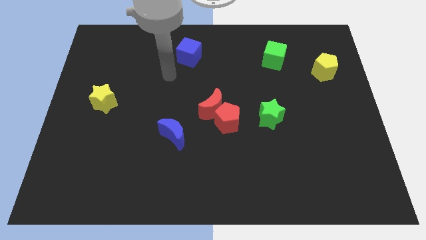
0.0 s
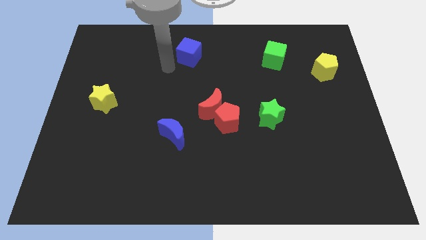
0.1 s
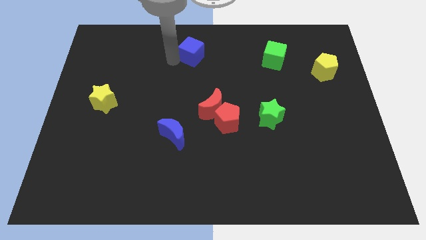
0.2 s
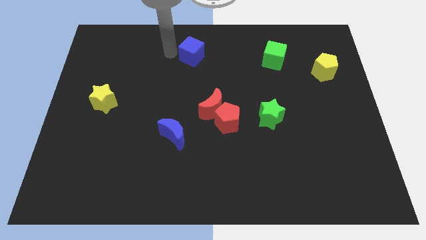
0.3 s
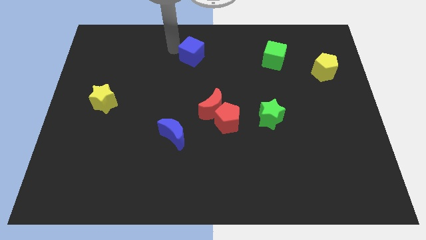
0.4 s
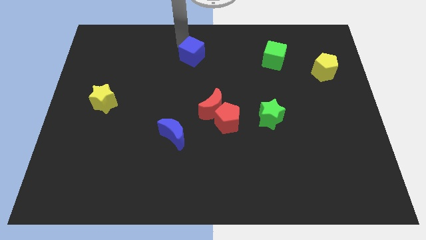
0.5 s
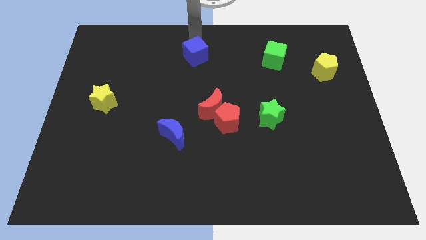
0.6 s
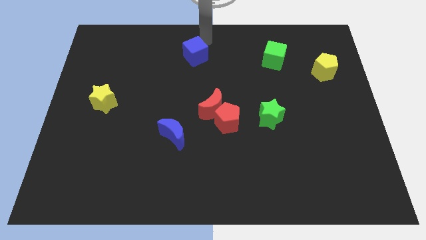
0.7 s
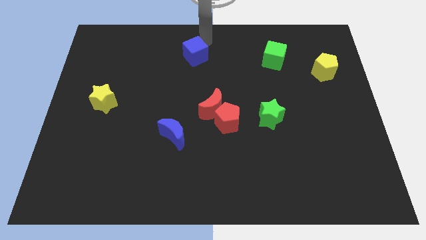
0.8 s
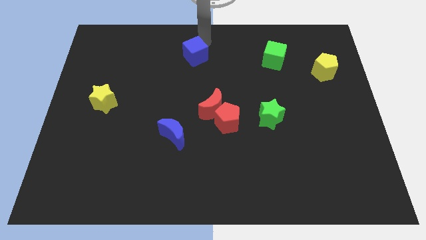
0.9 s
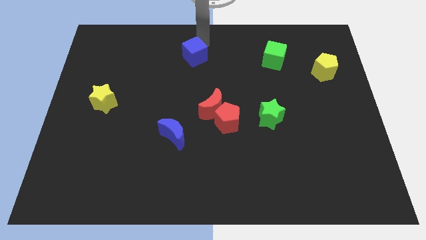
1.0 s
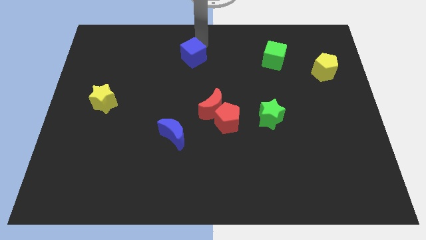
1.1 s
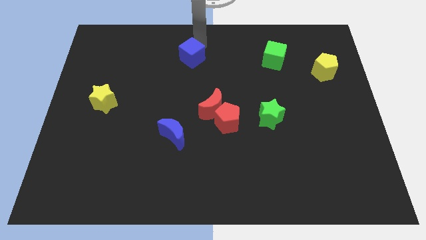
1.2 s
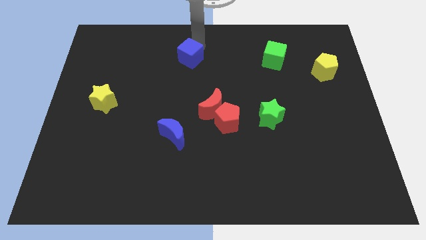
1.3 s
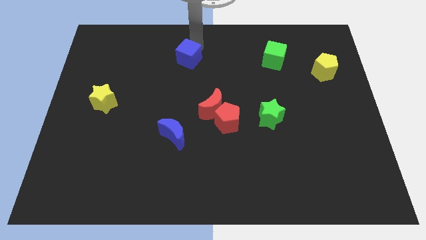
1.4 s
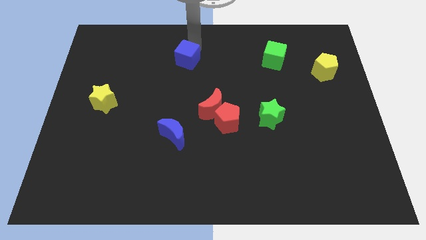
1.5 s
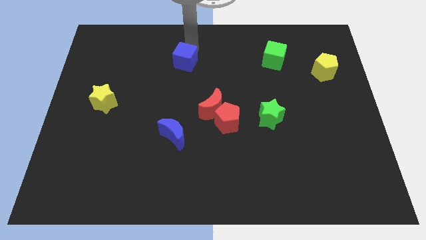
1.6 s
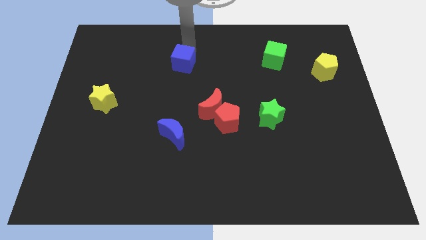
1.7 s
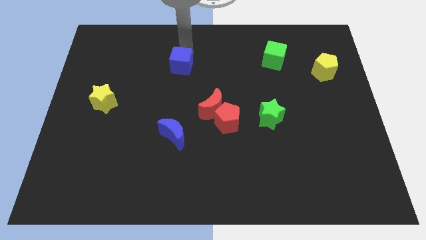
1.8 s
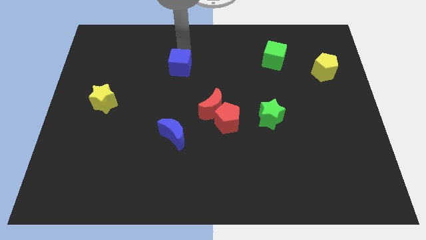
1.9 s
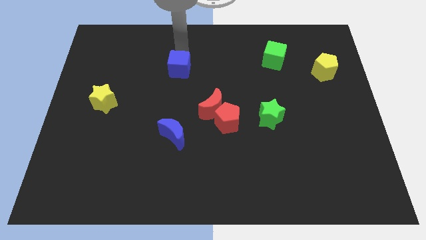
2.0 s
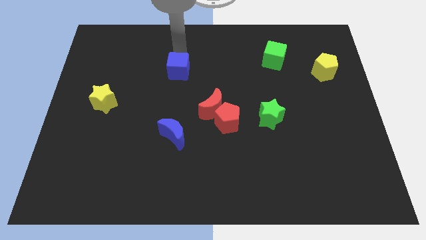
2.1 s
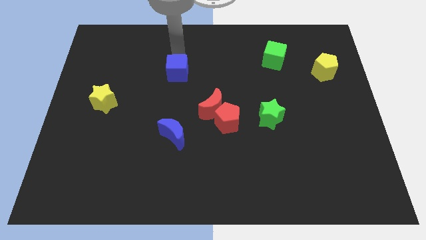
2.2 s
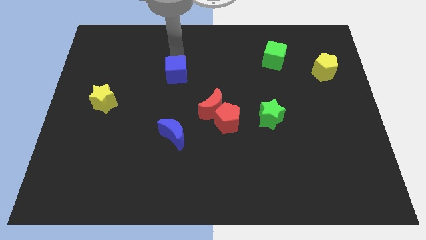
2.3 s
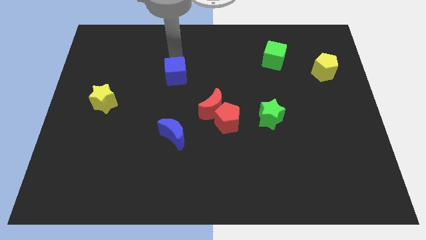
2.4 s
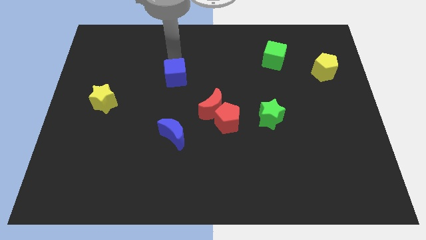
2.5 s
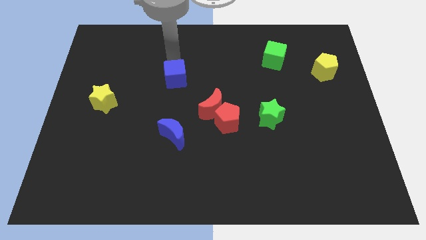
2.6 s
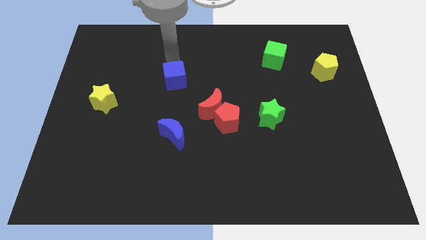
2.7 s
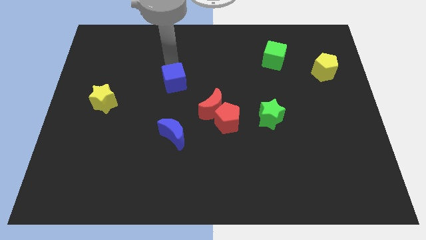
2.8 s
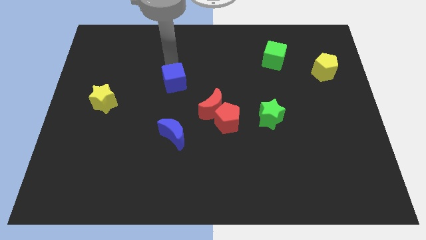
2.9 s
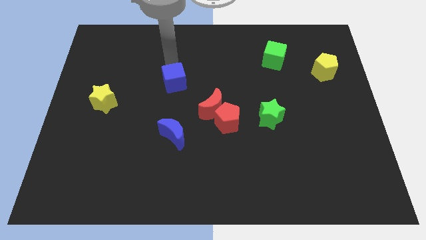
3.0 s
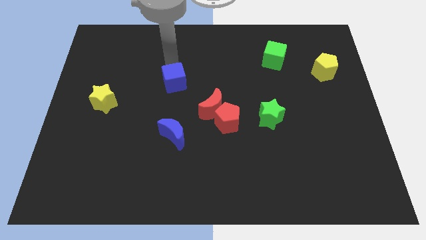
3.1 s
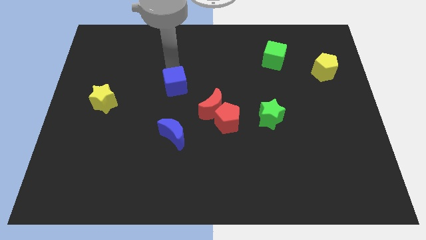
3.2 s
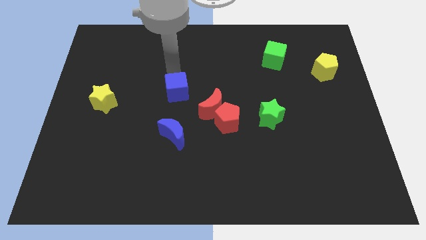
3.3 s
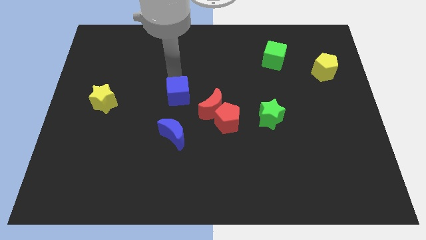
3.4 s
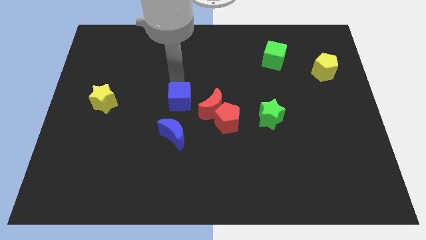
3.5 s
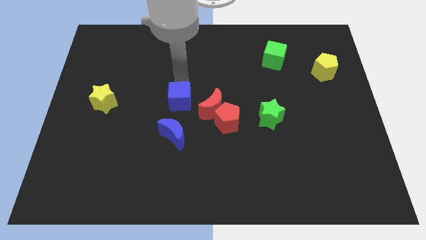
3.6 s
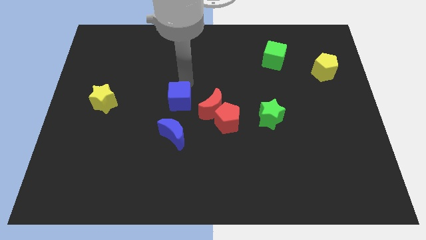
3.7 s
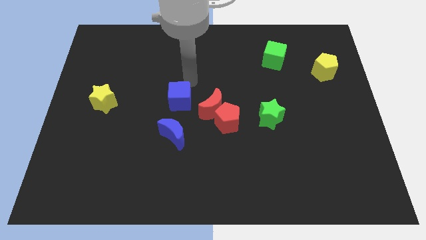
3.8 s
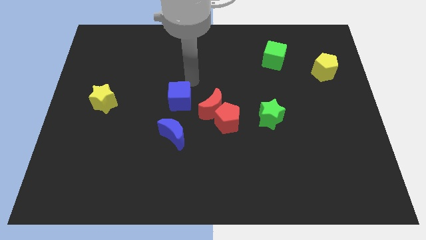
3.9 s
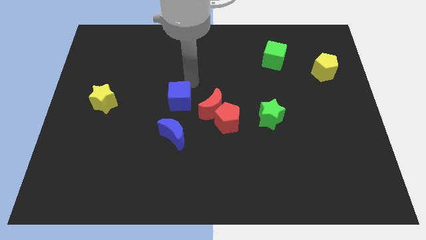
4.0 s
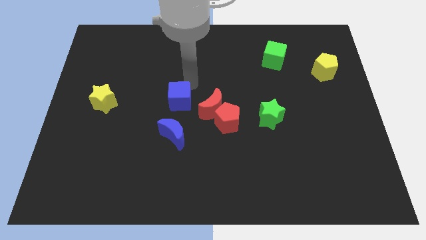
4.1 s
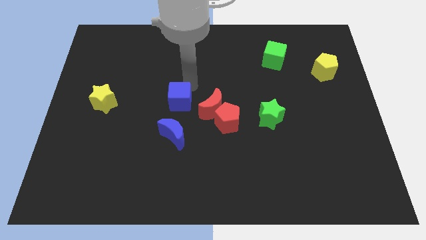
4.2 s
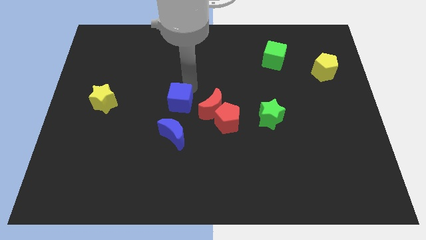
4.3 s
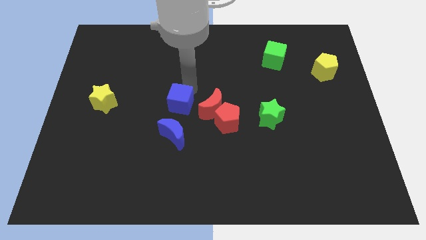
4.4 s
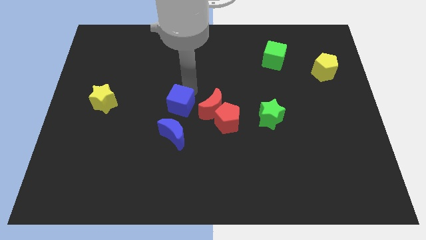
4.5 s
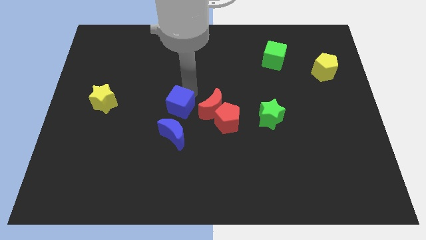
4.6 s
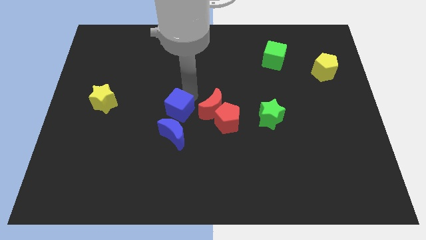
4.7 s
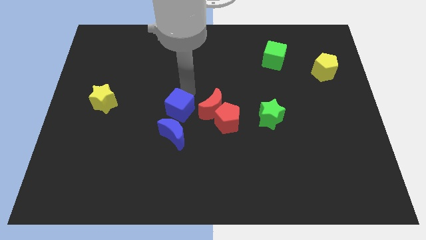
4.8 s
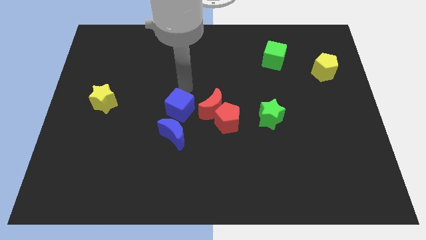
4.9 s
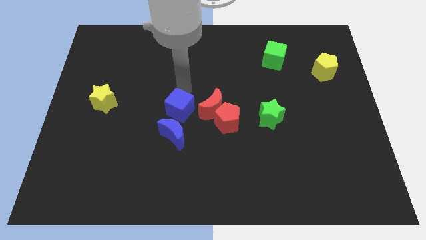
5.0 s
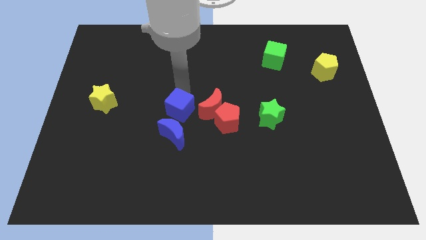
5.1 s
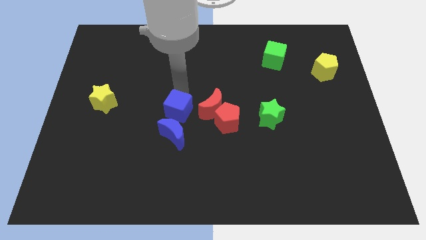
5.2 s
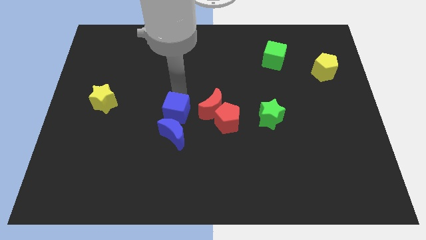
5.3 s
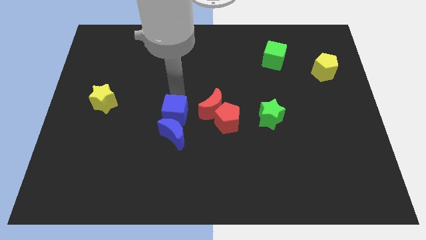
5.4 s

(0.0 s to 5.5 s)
slide the blue cube close to the blue moon

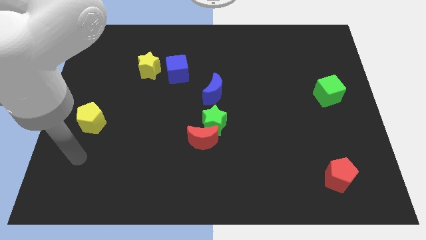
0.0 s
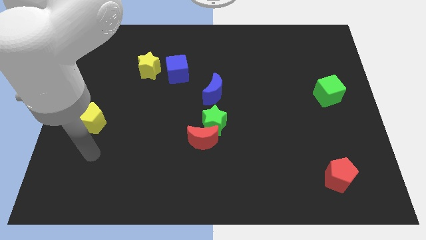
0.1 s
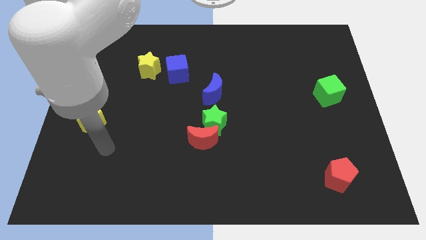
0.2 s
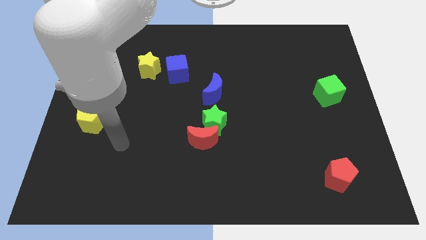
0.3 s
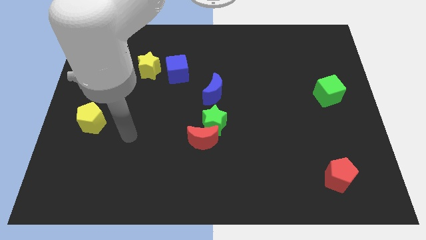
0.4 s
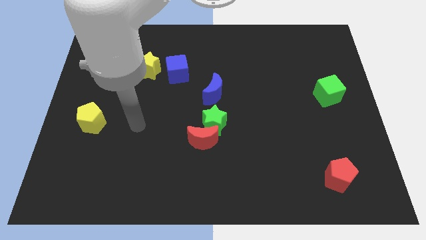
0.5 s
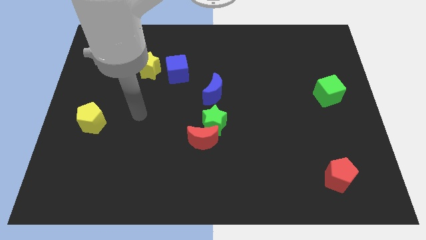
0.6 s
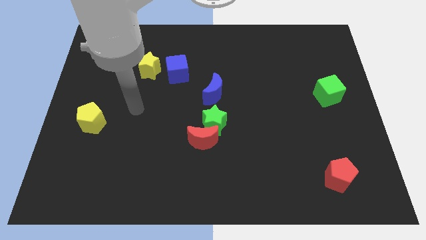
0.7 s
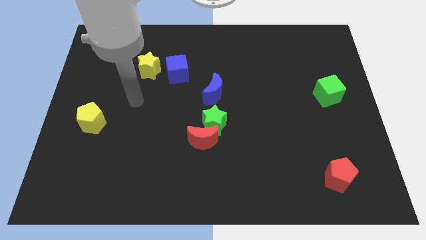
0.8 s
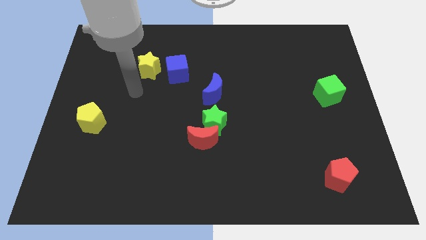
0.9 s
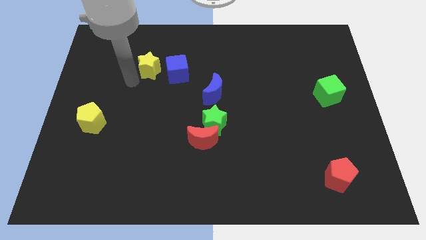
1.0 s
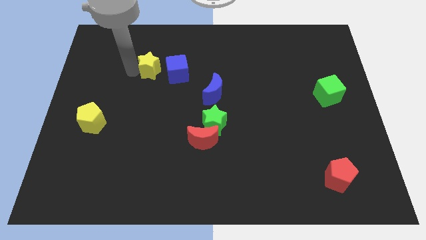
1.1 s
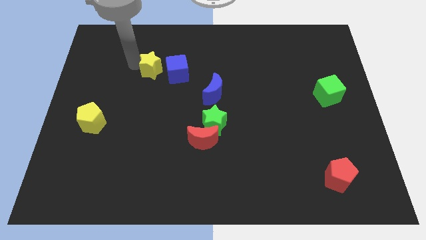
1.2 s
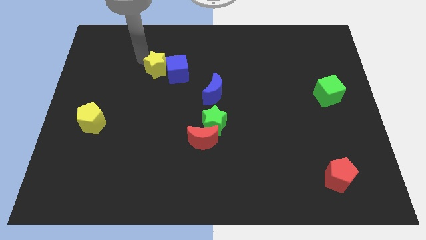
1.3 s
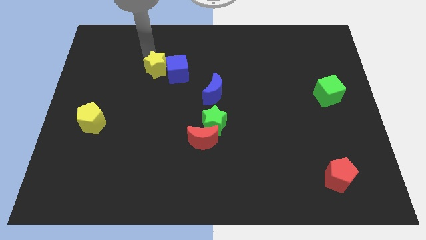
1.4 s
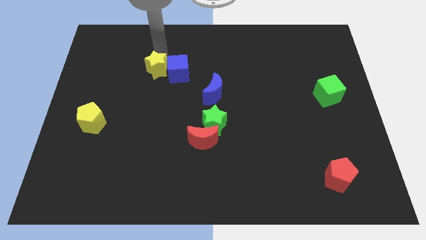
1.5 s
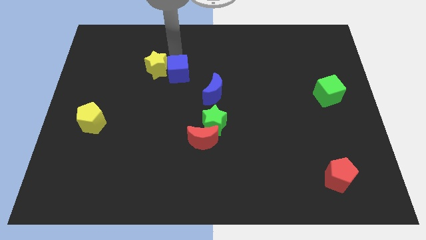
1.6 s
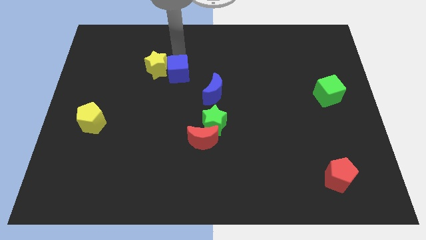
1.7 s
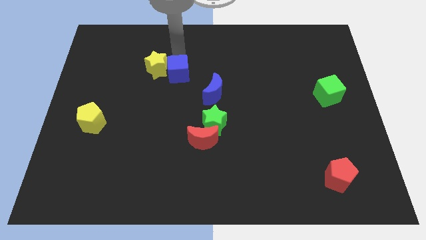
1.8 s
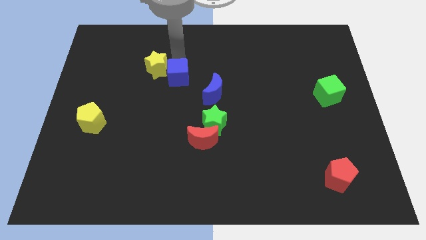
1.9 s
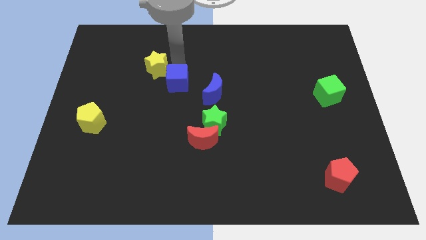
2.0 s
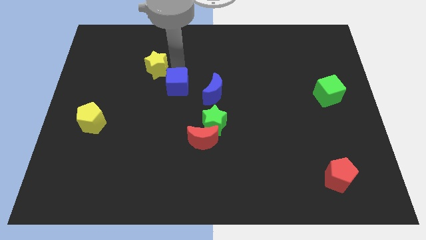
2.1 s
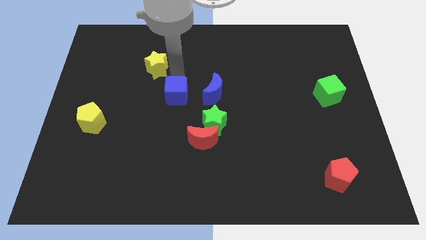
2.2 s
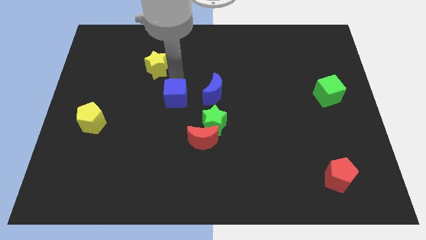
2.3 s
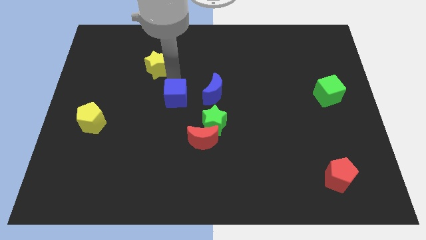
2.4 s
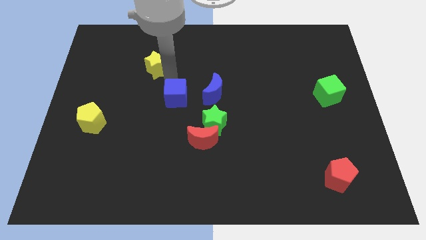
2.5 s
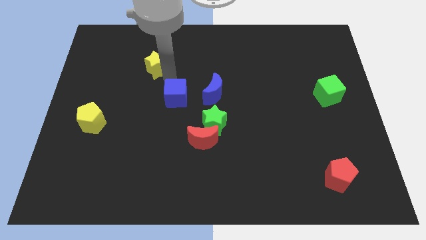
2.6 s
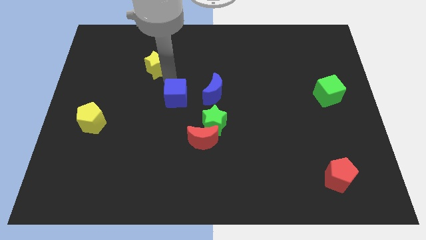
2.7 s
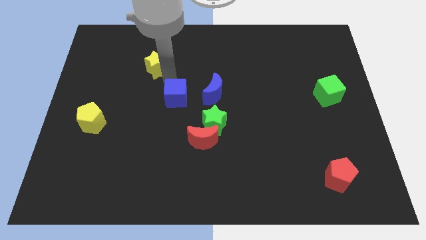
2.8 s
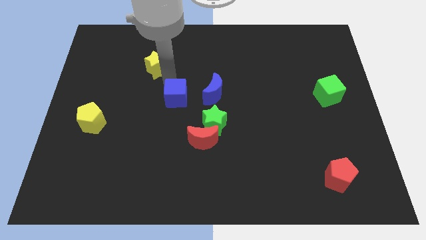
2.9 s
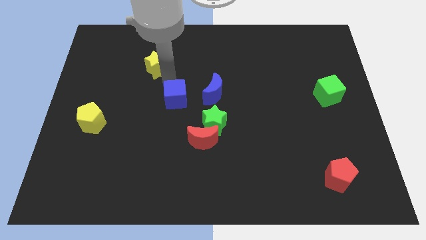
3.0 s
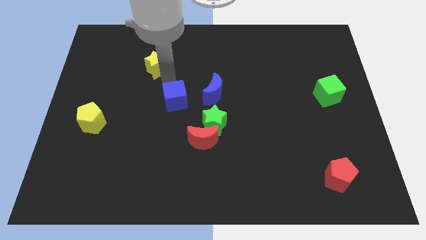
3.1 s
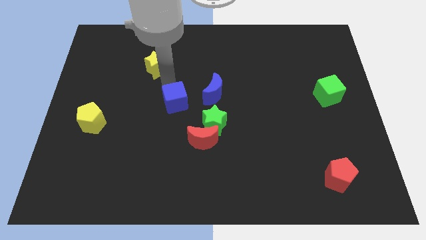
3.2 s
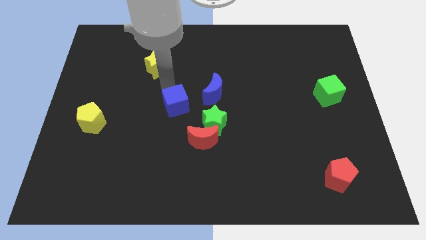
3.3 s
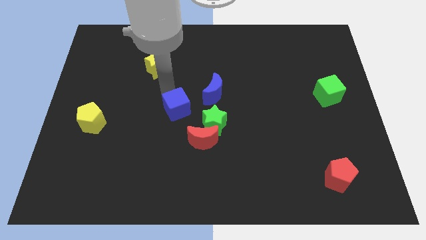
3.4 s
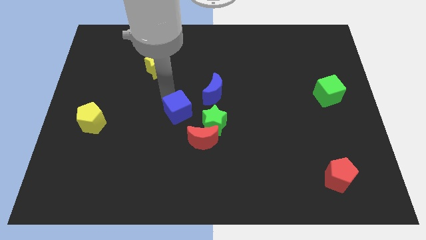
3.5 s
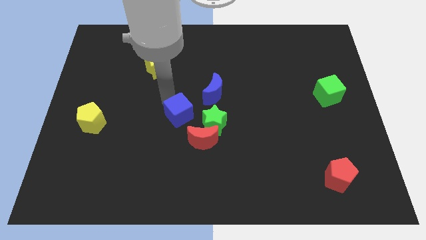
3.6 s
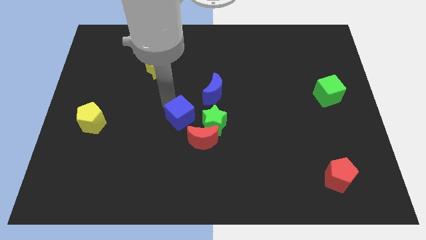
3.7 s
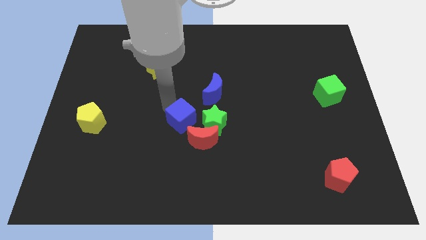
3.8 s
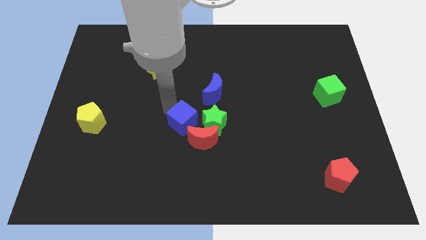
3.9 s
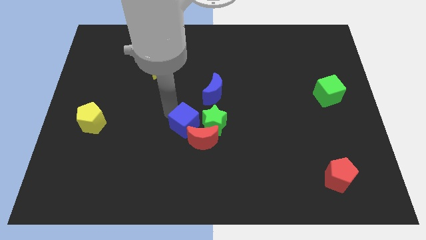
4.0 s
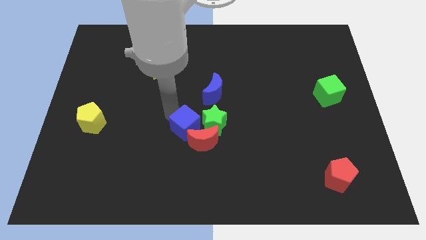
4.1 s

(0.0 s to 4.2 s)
slide the blue cube next to the green star
